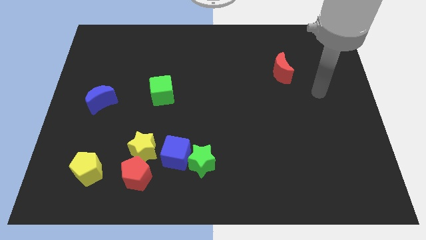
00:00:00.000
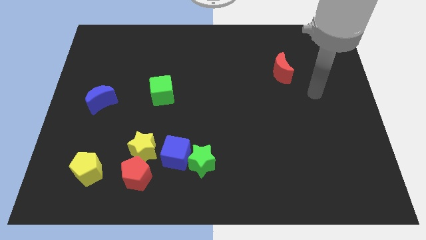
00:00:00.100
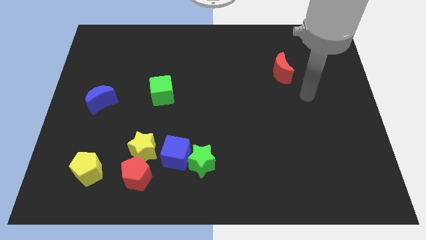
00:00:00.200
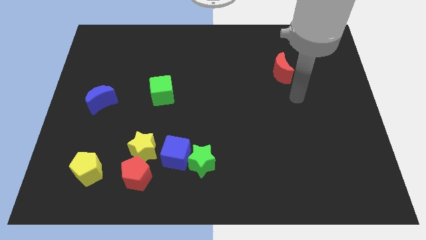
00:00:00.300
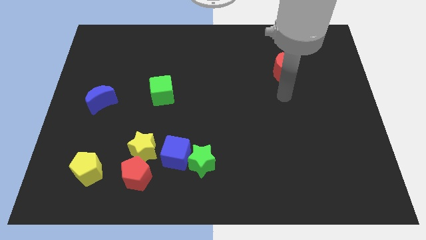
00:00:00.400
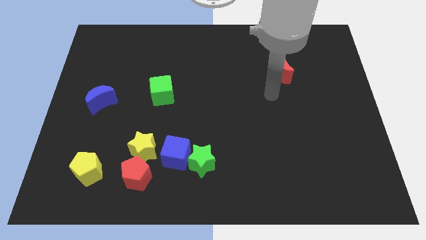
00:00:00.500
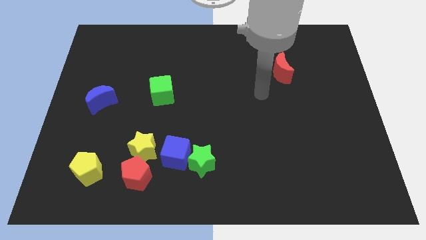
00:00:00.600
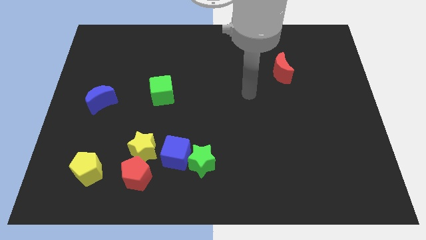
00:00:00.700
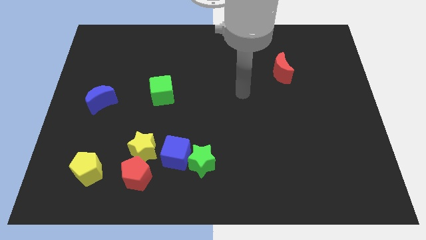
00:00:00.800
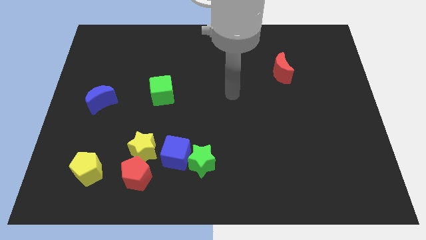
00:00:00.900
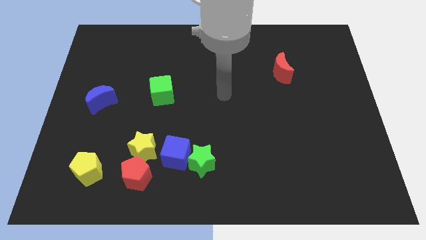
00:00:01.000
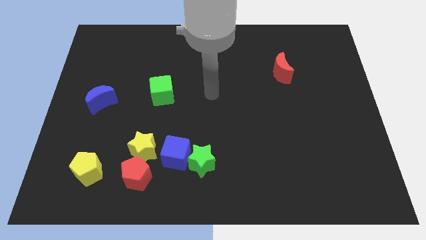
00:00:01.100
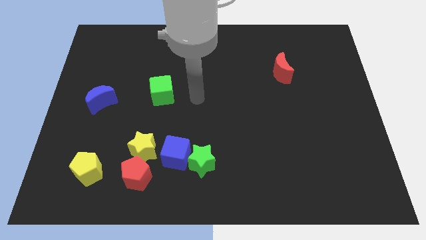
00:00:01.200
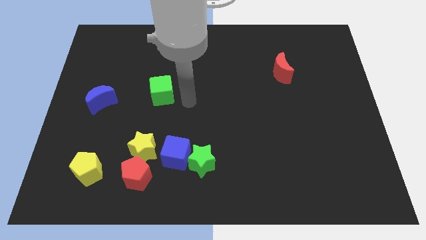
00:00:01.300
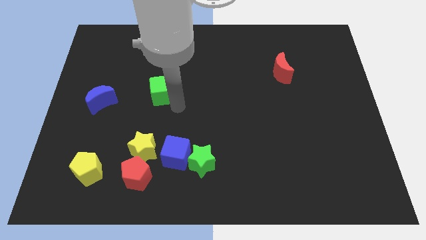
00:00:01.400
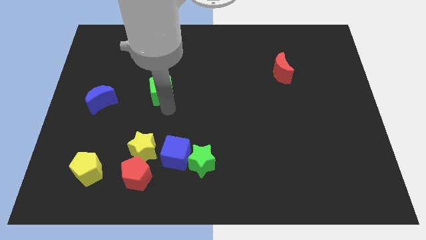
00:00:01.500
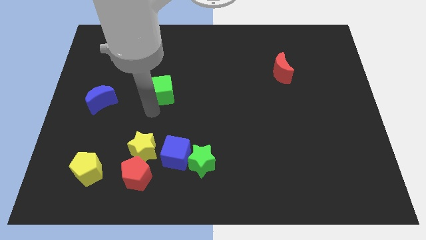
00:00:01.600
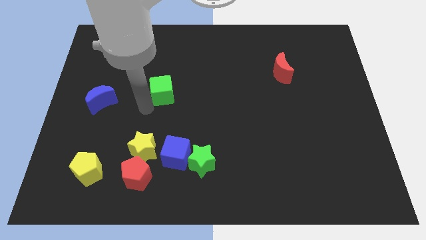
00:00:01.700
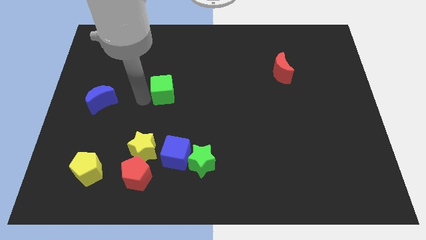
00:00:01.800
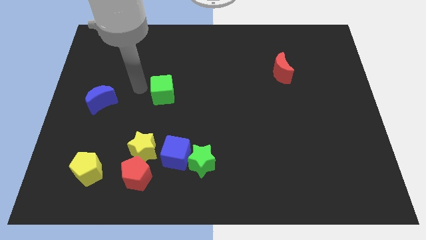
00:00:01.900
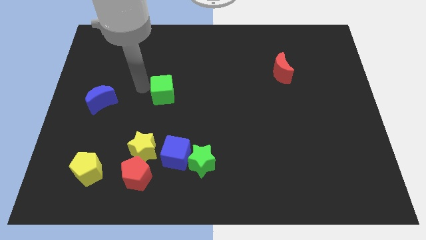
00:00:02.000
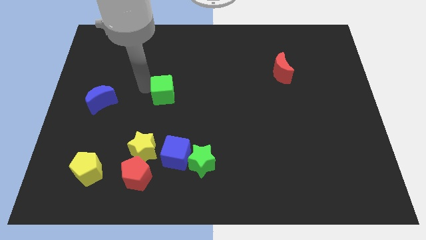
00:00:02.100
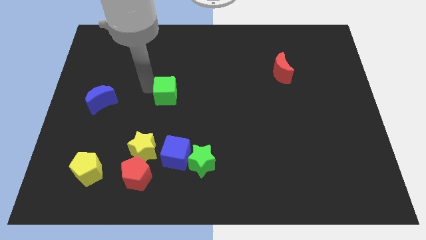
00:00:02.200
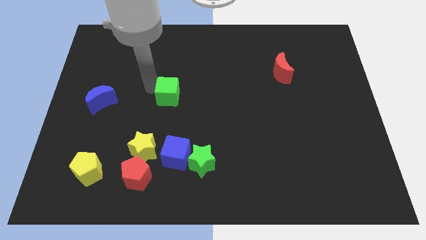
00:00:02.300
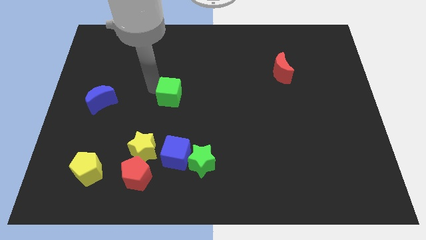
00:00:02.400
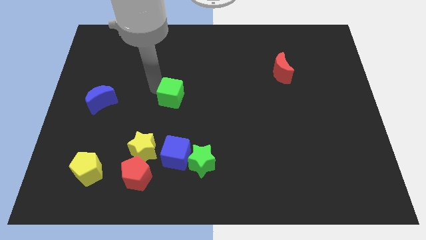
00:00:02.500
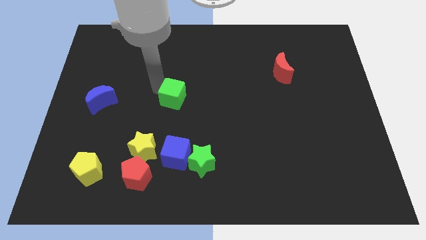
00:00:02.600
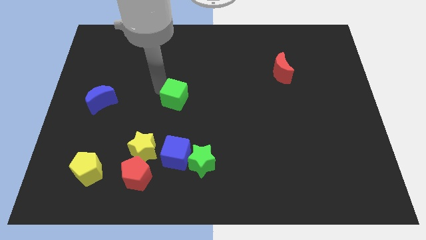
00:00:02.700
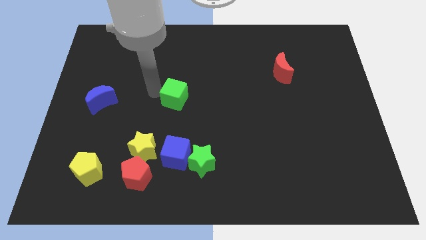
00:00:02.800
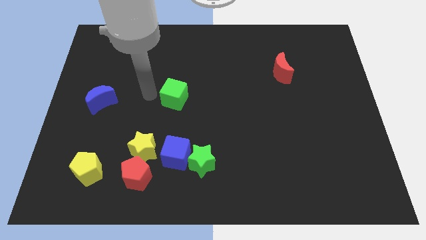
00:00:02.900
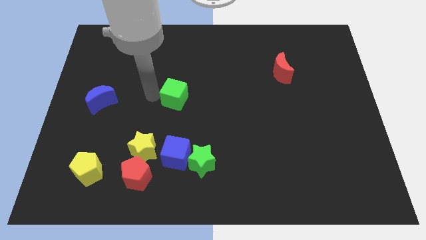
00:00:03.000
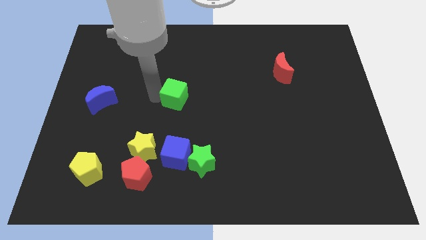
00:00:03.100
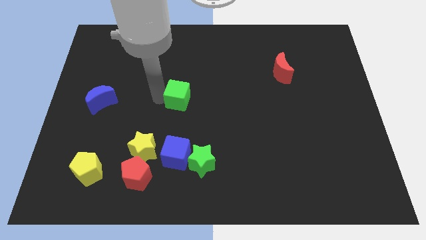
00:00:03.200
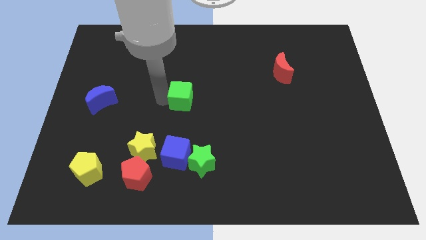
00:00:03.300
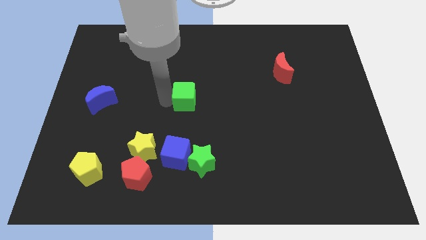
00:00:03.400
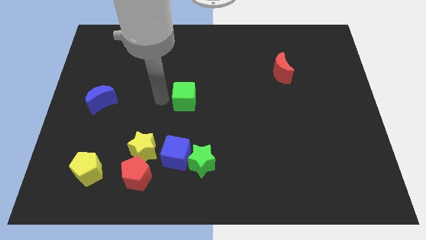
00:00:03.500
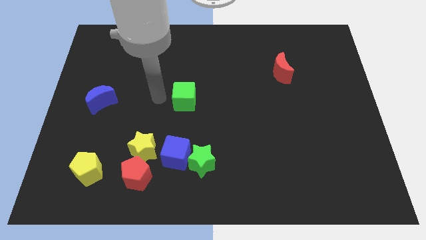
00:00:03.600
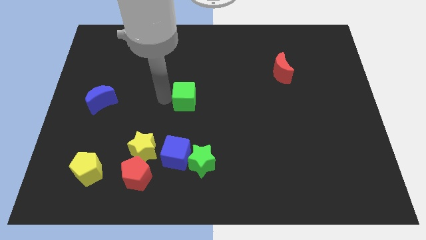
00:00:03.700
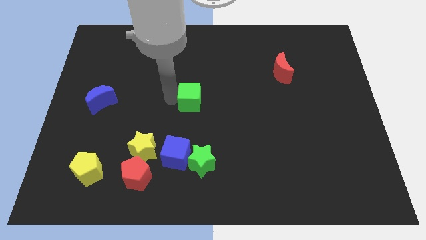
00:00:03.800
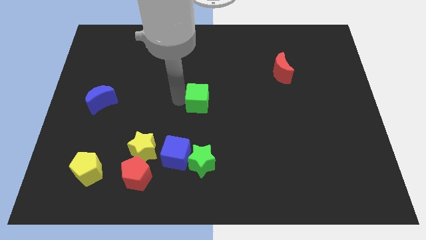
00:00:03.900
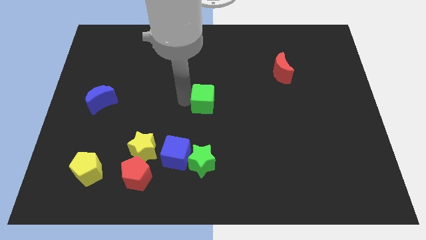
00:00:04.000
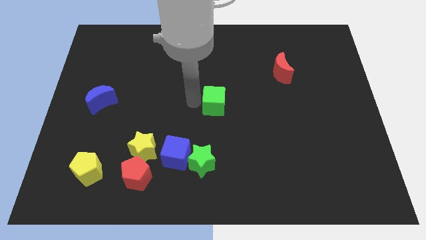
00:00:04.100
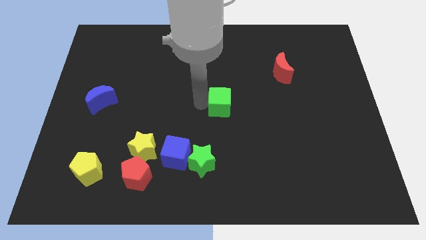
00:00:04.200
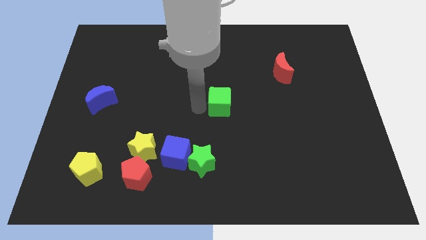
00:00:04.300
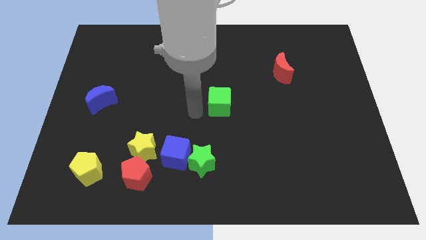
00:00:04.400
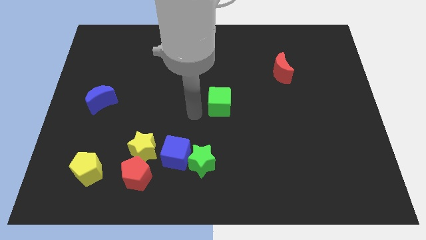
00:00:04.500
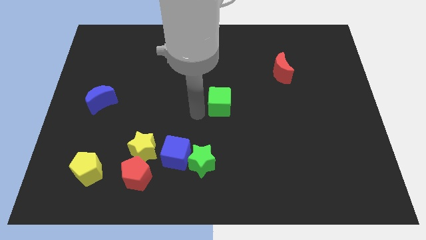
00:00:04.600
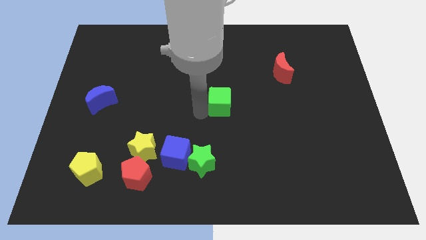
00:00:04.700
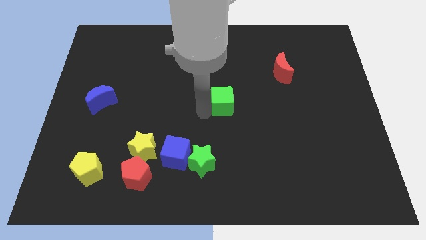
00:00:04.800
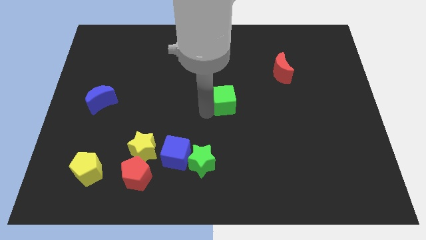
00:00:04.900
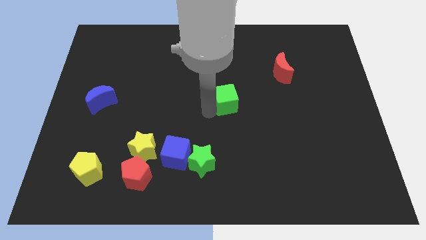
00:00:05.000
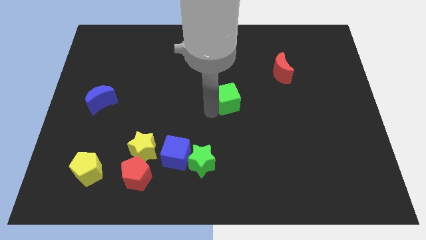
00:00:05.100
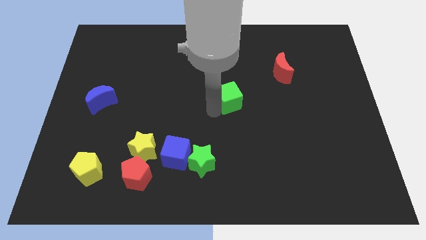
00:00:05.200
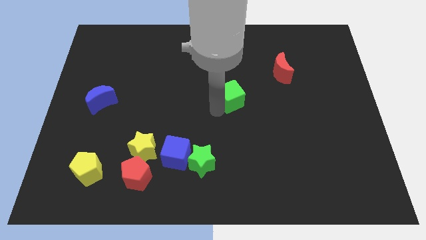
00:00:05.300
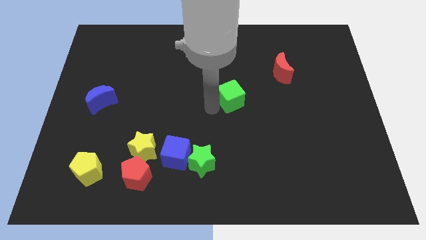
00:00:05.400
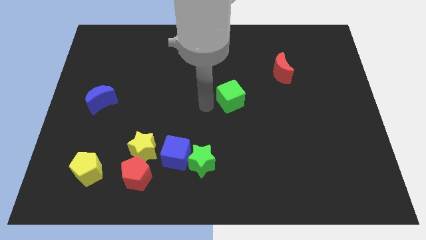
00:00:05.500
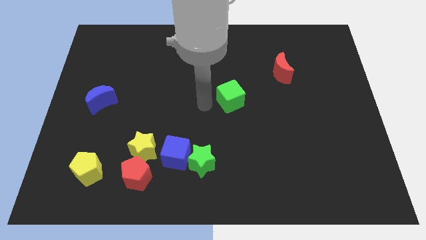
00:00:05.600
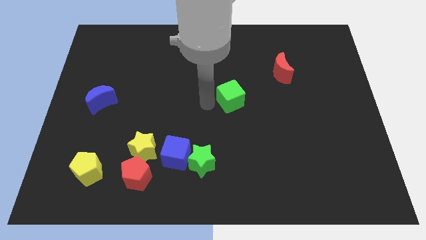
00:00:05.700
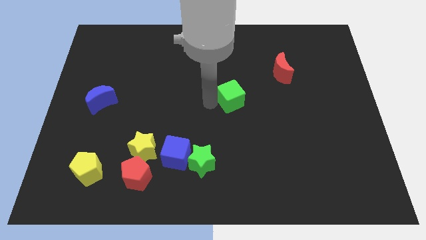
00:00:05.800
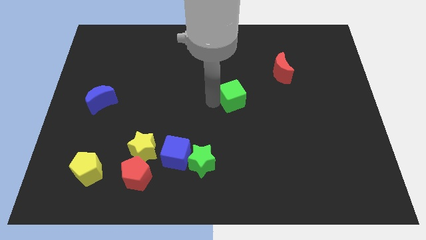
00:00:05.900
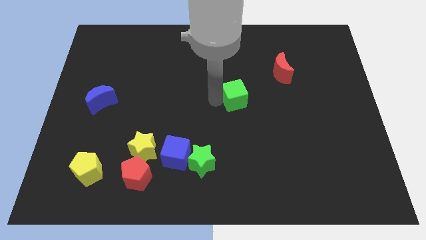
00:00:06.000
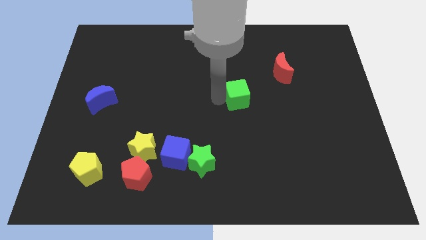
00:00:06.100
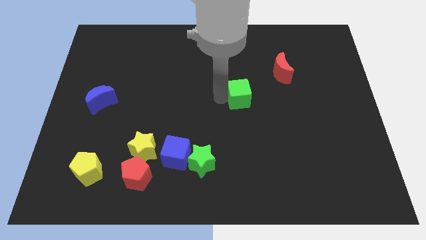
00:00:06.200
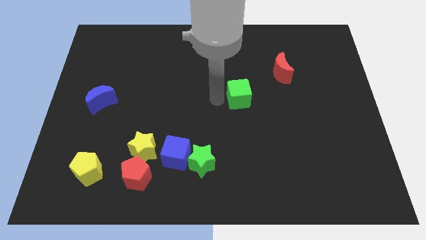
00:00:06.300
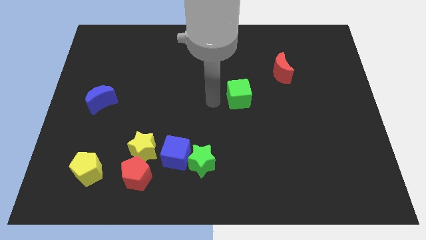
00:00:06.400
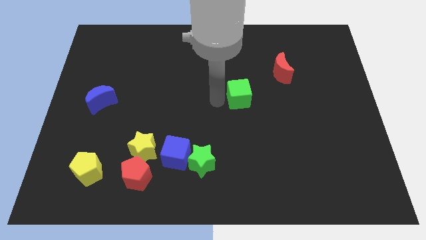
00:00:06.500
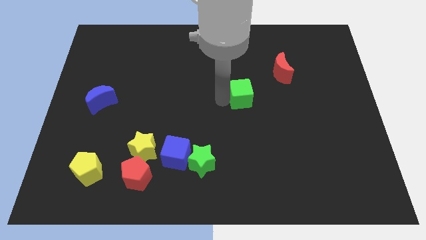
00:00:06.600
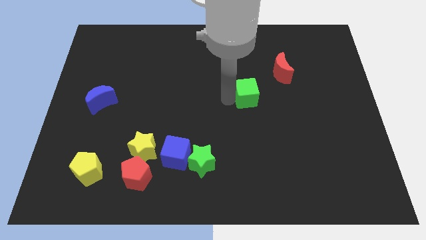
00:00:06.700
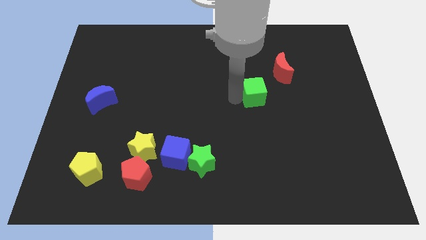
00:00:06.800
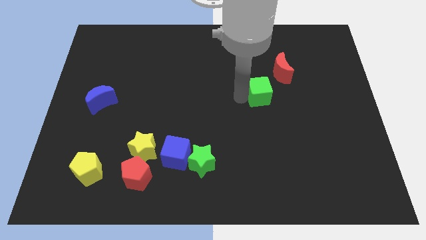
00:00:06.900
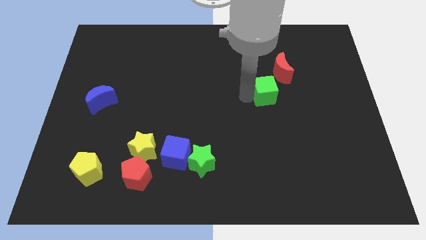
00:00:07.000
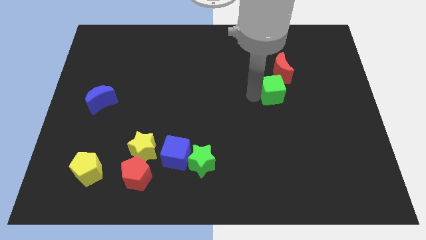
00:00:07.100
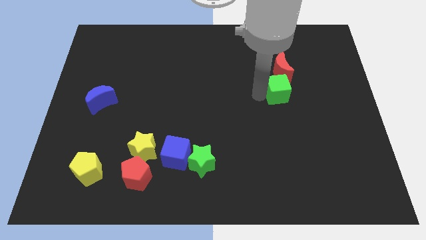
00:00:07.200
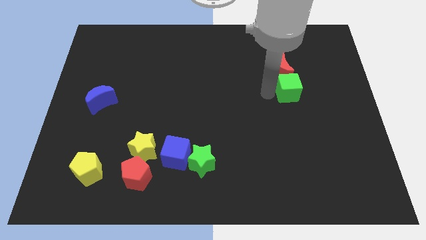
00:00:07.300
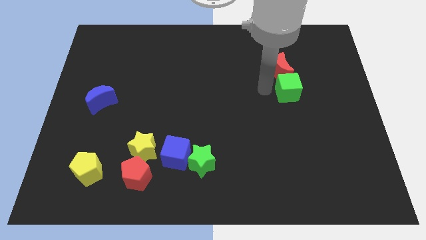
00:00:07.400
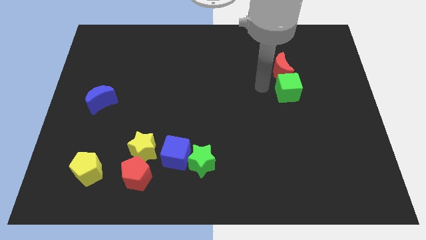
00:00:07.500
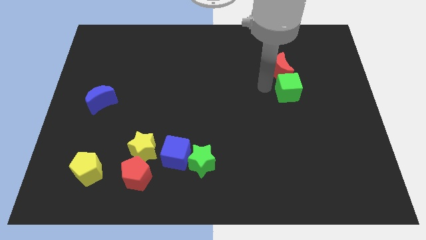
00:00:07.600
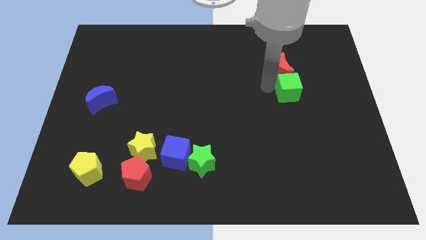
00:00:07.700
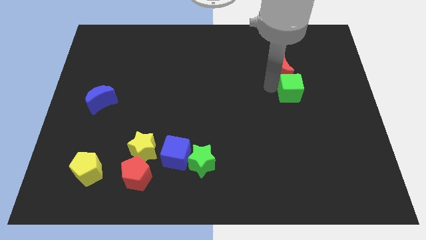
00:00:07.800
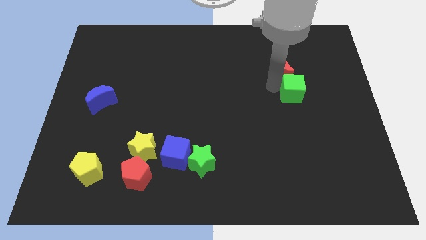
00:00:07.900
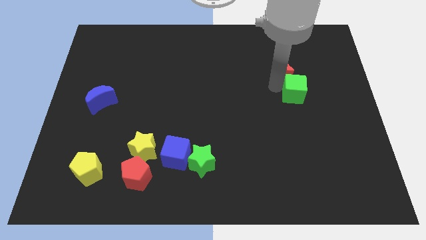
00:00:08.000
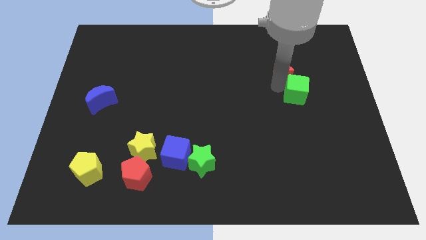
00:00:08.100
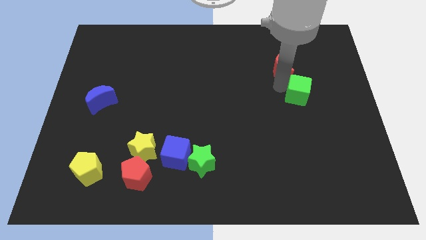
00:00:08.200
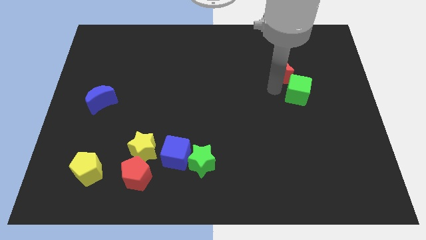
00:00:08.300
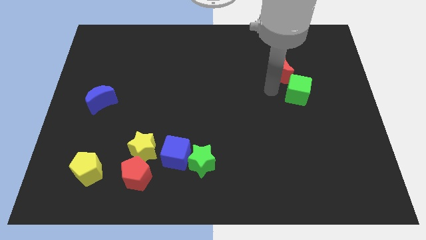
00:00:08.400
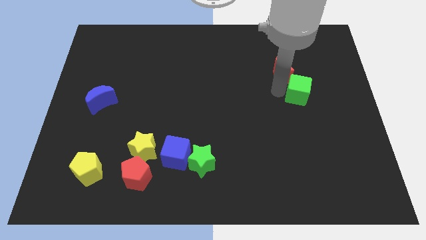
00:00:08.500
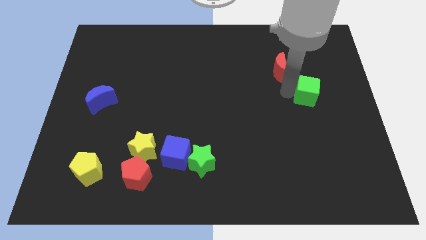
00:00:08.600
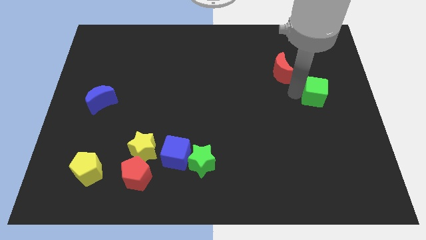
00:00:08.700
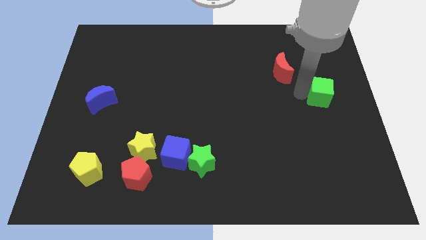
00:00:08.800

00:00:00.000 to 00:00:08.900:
push the green cube to the center right
